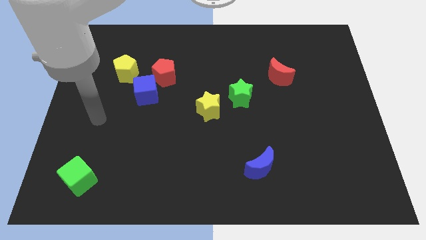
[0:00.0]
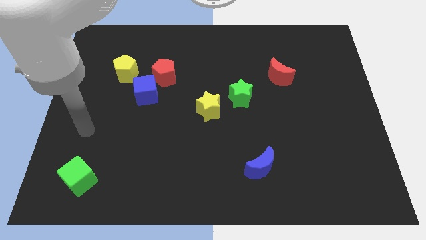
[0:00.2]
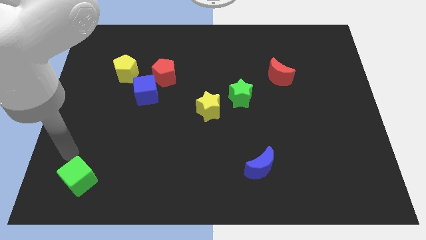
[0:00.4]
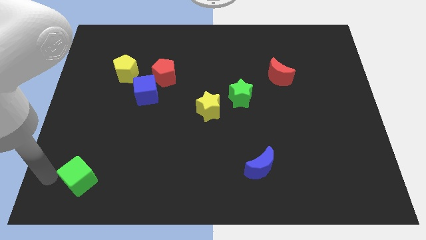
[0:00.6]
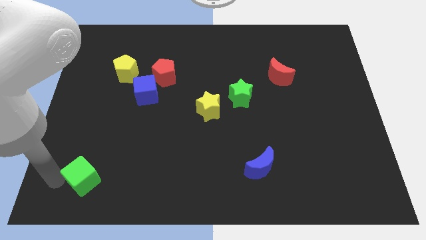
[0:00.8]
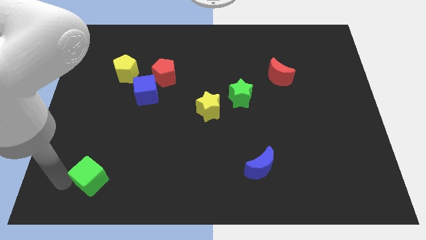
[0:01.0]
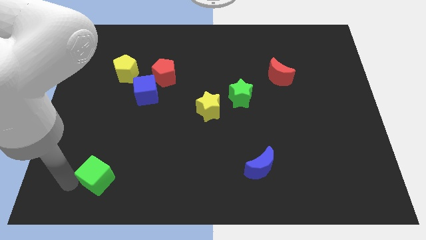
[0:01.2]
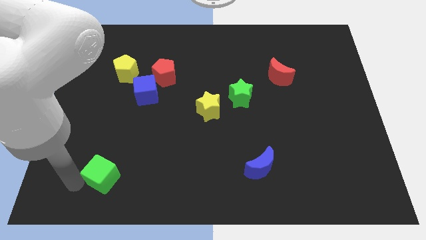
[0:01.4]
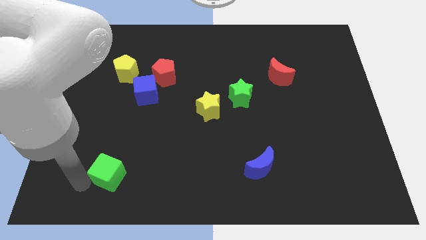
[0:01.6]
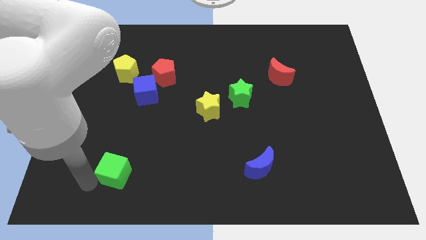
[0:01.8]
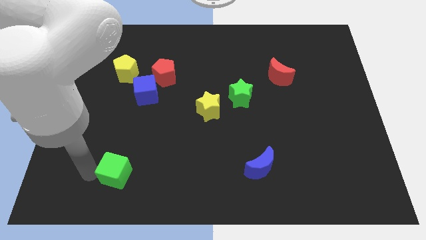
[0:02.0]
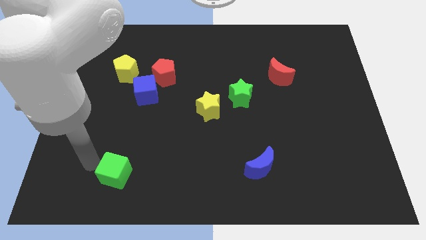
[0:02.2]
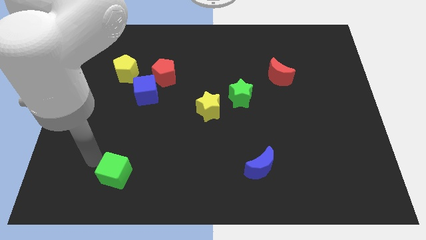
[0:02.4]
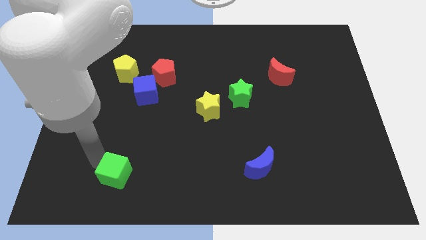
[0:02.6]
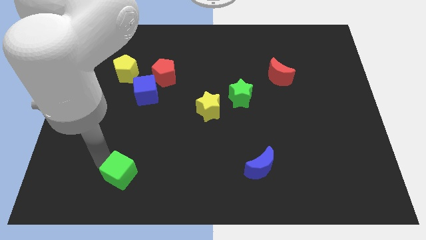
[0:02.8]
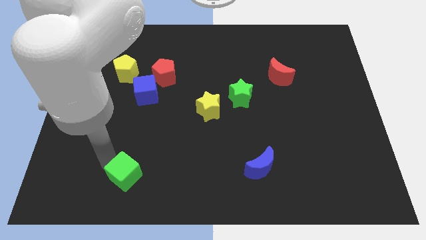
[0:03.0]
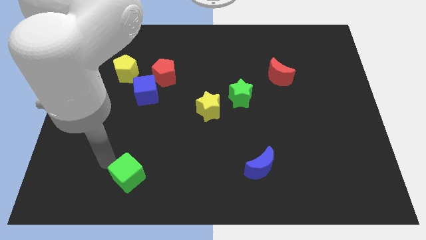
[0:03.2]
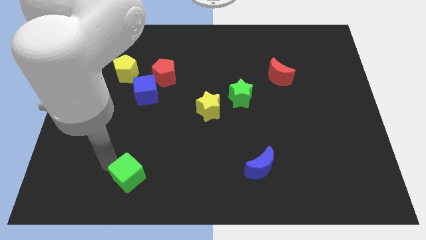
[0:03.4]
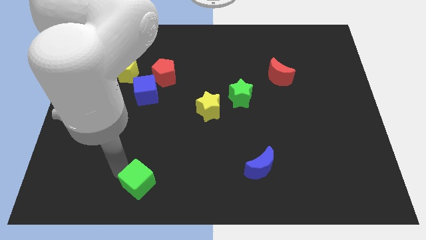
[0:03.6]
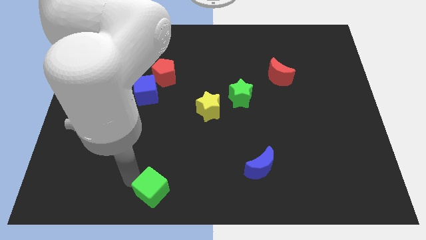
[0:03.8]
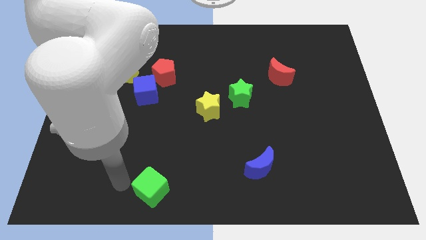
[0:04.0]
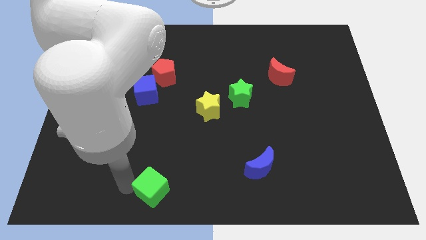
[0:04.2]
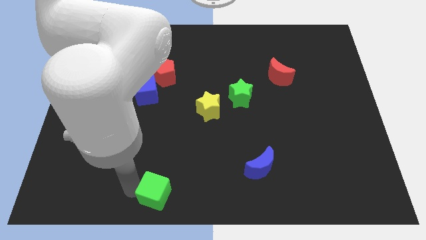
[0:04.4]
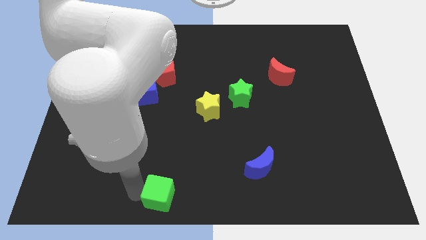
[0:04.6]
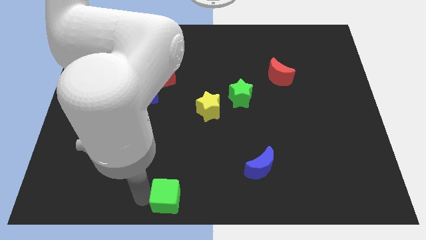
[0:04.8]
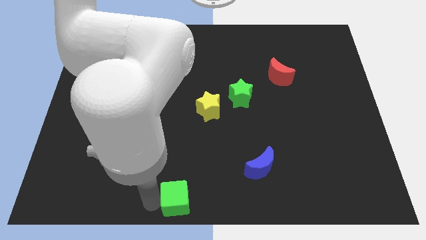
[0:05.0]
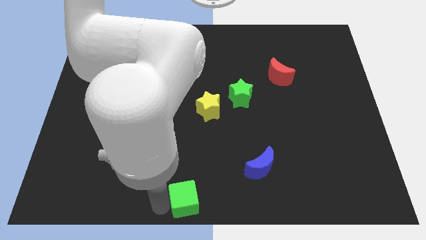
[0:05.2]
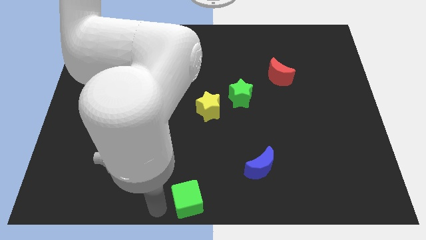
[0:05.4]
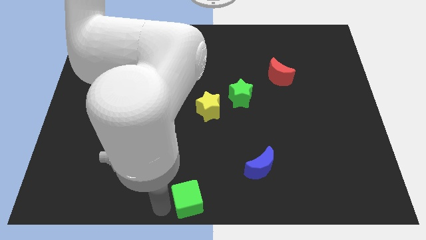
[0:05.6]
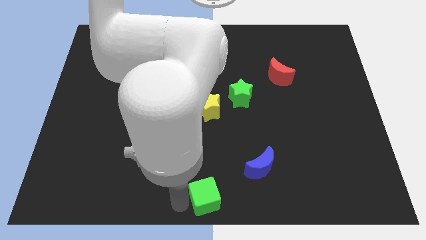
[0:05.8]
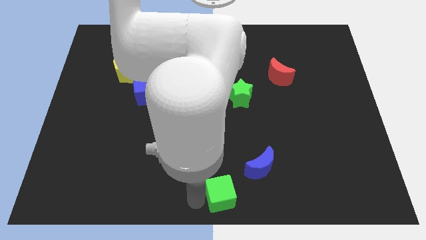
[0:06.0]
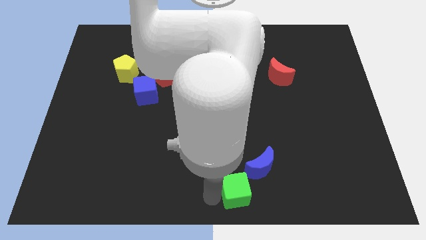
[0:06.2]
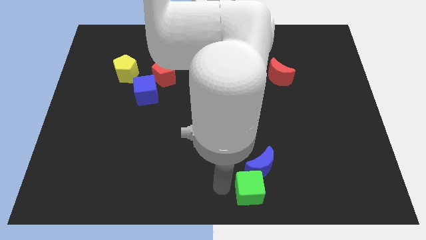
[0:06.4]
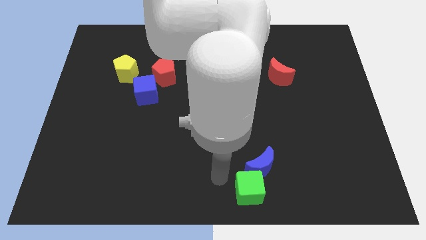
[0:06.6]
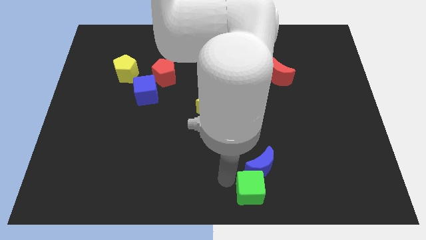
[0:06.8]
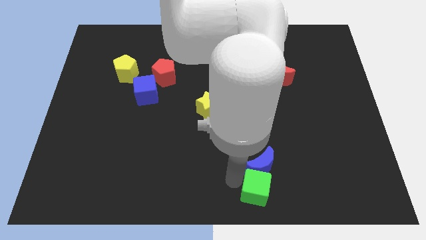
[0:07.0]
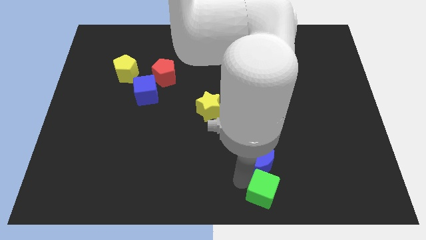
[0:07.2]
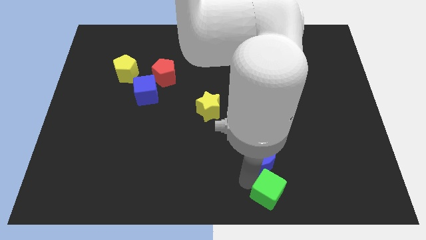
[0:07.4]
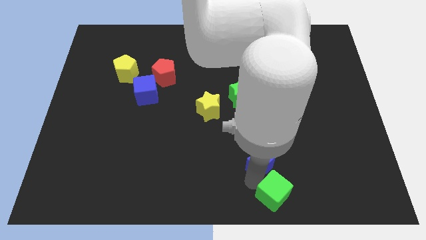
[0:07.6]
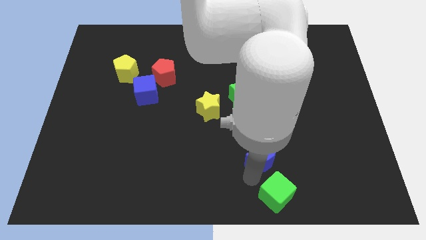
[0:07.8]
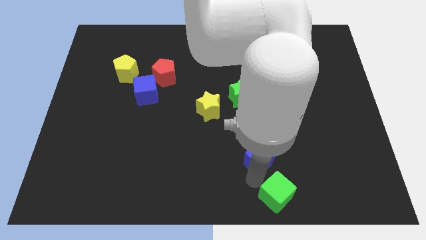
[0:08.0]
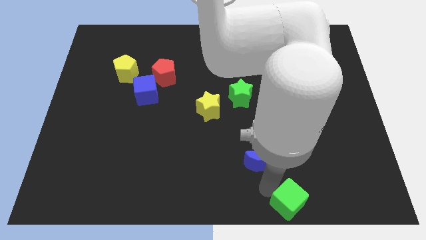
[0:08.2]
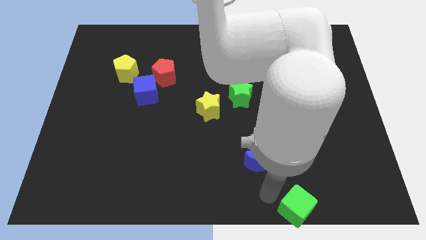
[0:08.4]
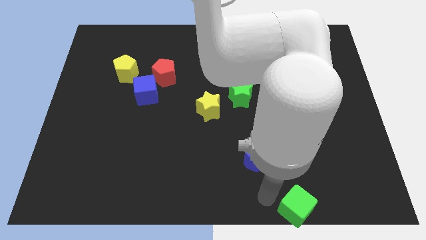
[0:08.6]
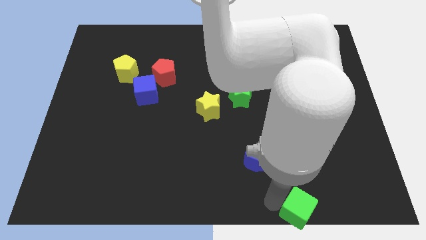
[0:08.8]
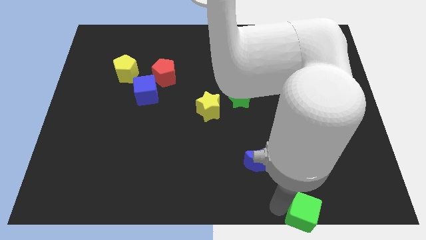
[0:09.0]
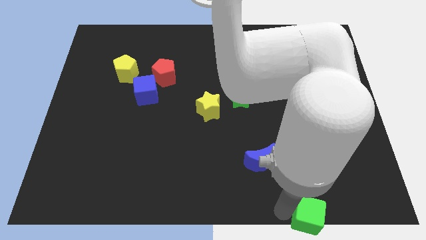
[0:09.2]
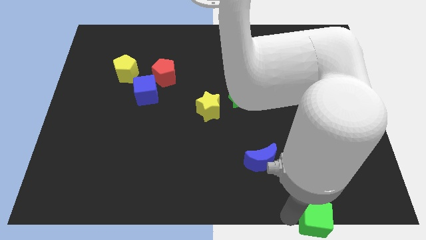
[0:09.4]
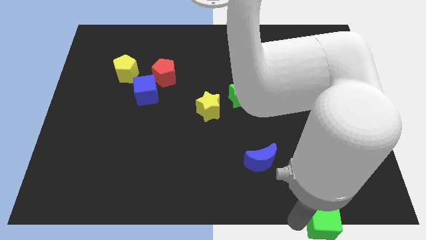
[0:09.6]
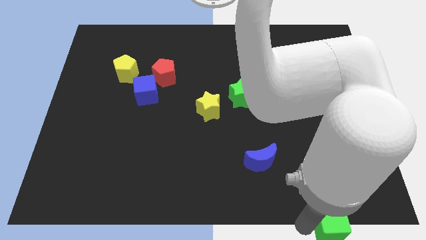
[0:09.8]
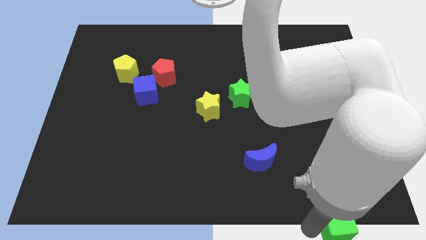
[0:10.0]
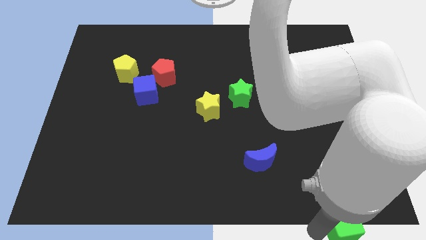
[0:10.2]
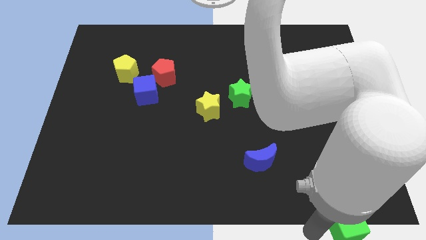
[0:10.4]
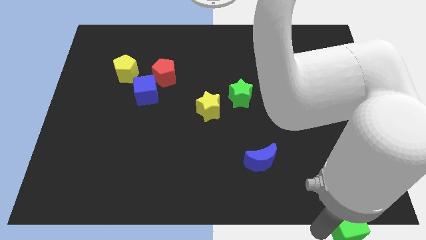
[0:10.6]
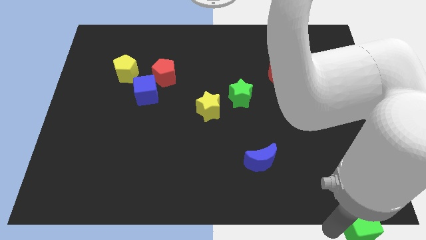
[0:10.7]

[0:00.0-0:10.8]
move the green cube to the lower right corner
